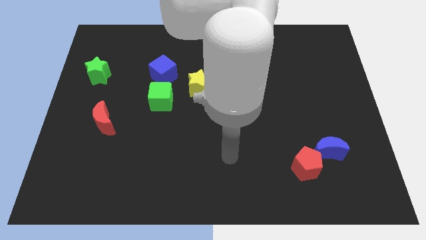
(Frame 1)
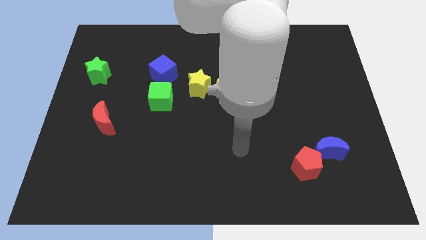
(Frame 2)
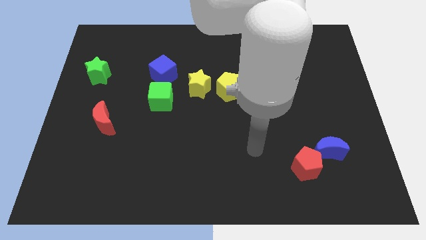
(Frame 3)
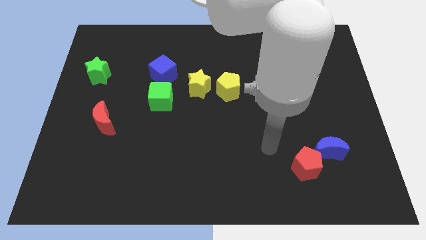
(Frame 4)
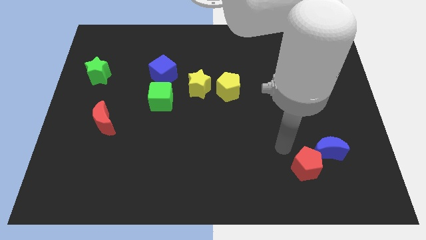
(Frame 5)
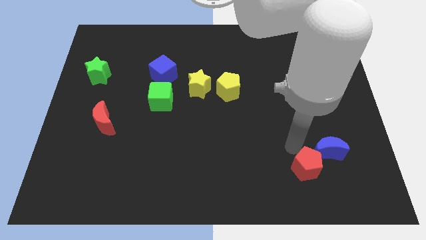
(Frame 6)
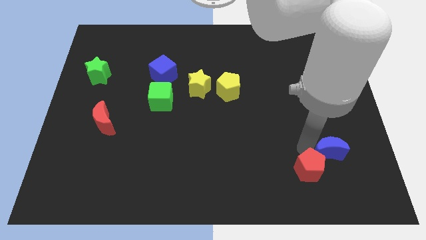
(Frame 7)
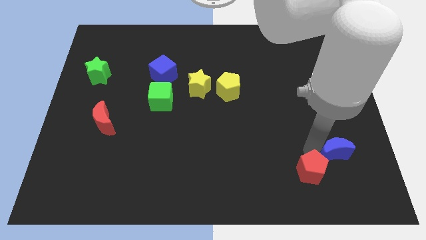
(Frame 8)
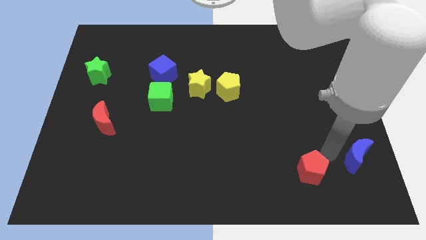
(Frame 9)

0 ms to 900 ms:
move the red pentagon away from the blue moon

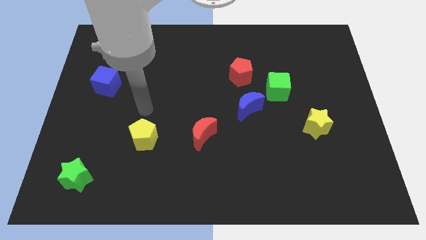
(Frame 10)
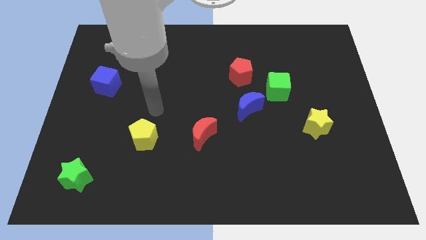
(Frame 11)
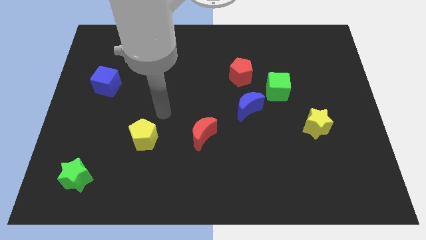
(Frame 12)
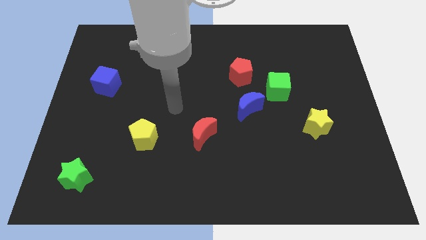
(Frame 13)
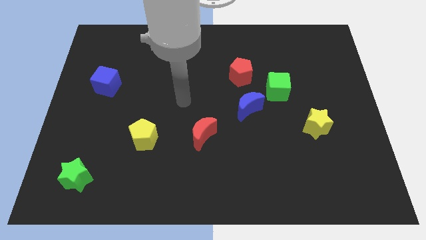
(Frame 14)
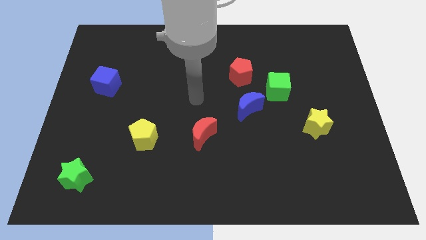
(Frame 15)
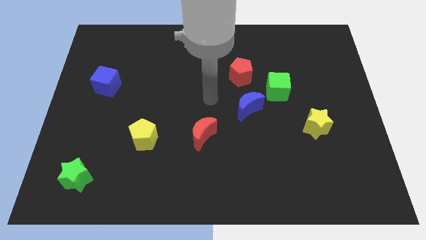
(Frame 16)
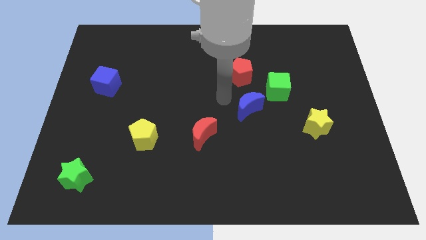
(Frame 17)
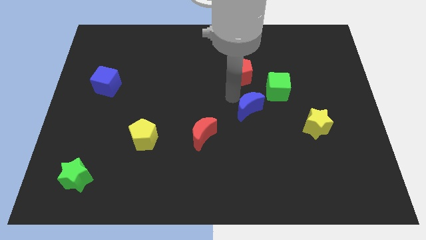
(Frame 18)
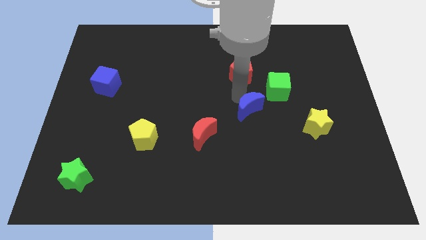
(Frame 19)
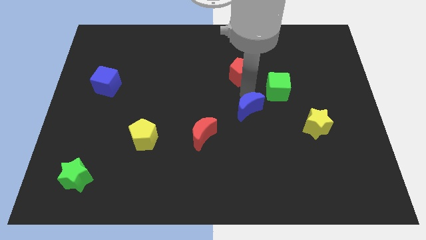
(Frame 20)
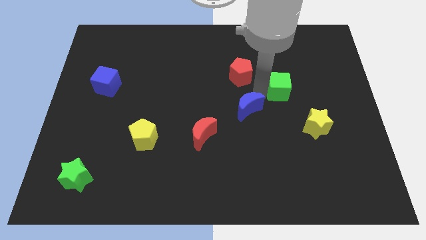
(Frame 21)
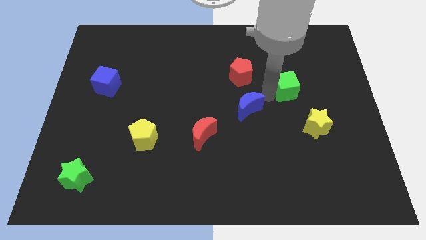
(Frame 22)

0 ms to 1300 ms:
separate the blue moon from the green cube

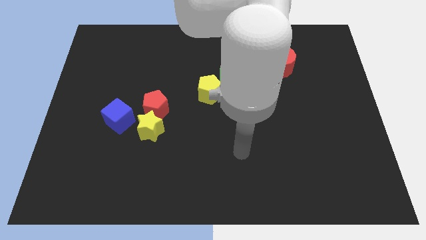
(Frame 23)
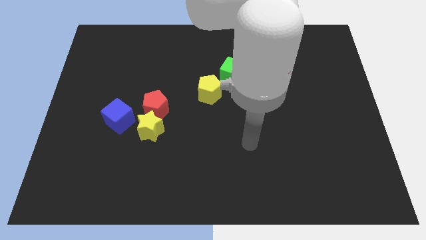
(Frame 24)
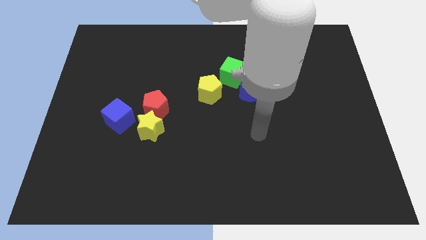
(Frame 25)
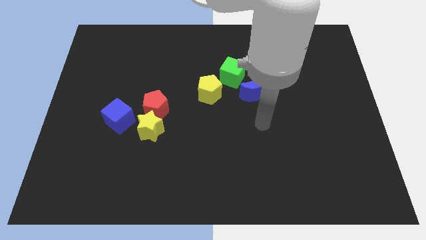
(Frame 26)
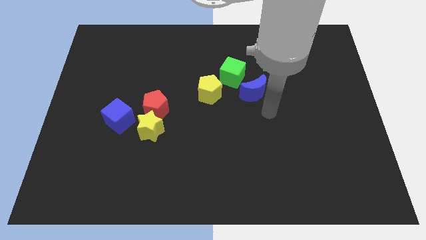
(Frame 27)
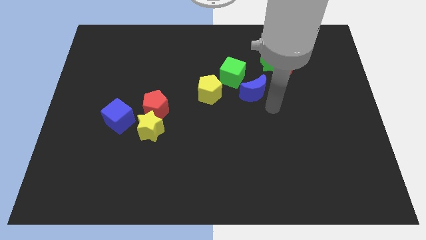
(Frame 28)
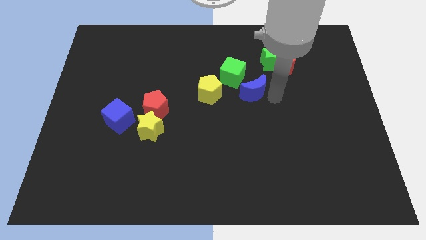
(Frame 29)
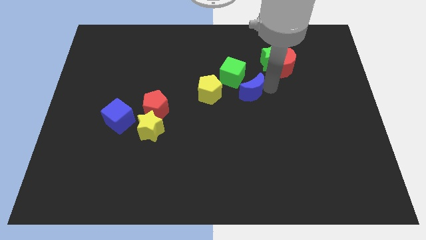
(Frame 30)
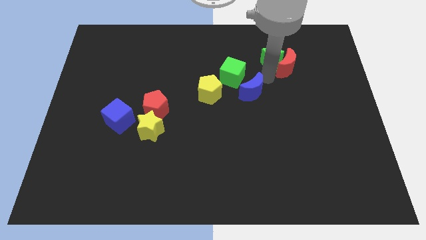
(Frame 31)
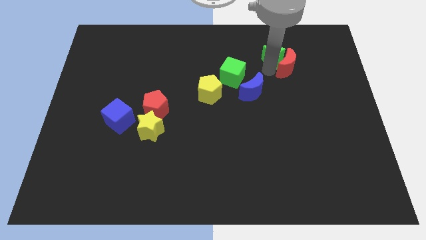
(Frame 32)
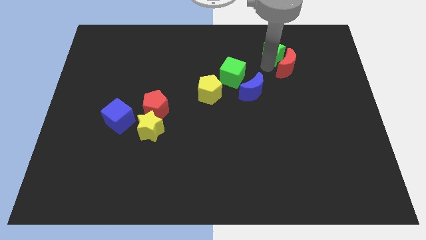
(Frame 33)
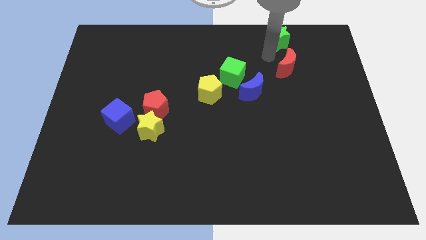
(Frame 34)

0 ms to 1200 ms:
move the red moon away from the green star

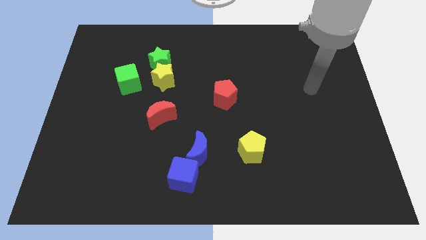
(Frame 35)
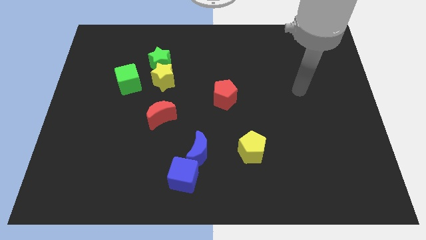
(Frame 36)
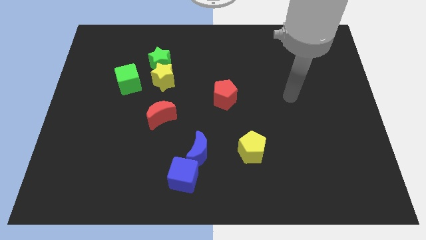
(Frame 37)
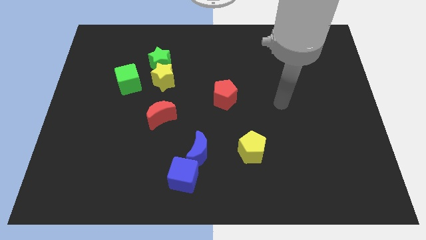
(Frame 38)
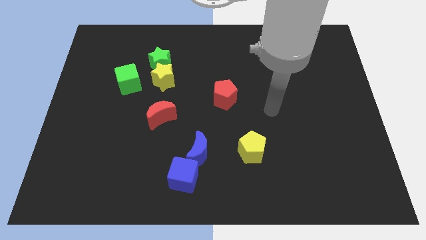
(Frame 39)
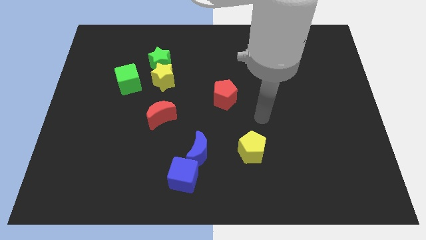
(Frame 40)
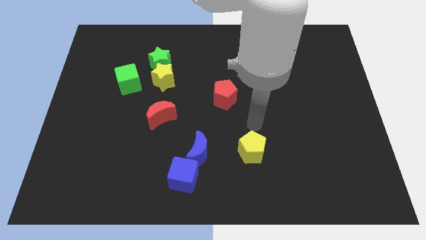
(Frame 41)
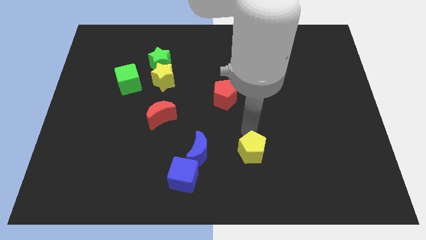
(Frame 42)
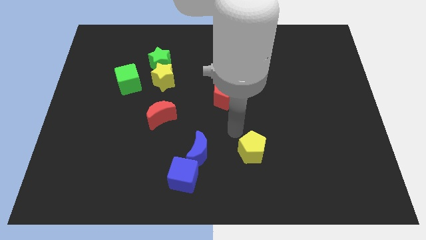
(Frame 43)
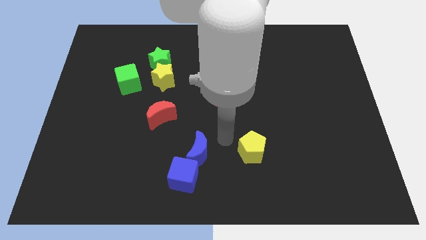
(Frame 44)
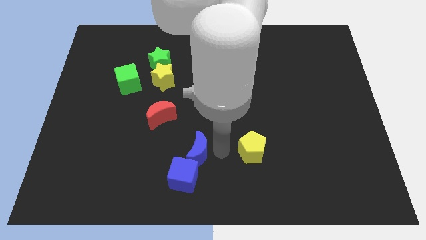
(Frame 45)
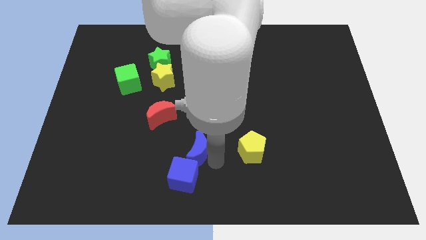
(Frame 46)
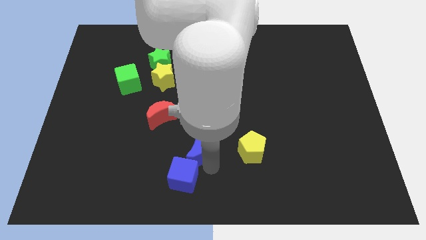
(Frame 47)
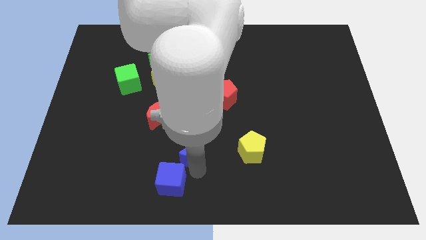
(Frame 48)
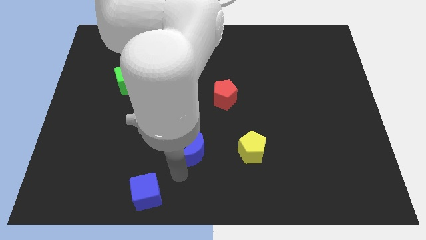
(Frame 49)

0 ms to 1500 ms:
separate the blue moon from the blue cube

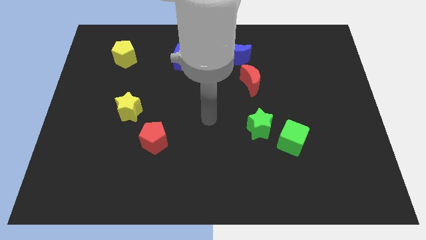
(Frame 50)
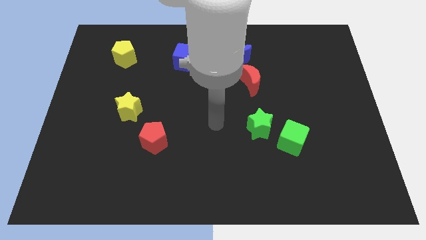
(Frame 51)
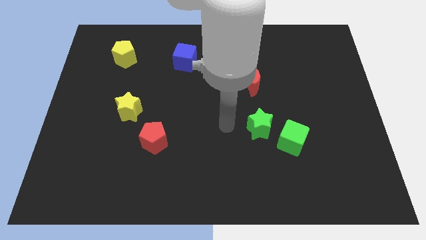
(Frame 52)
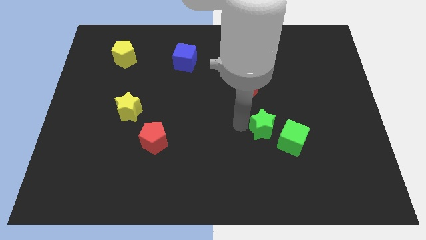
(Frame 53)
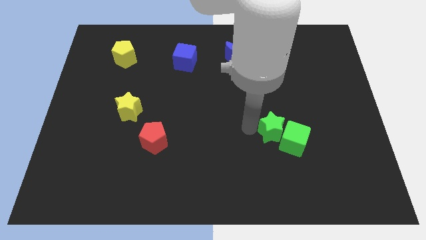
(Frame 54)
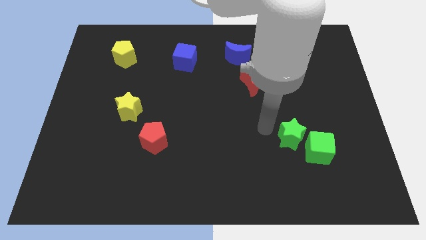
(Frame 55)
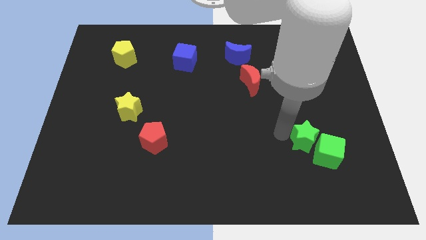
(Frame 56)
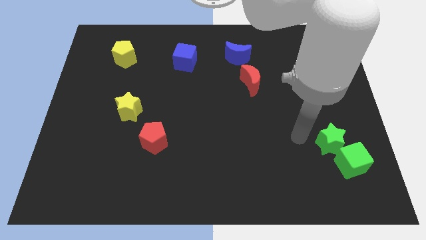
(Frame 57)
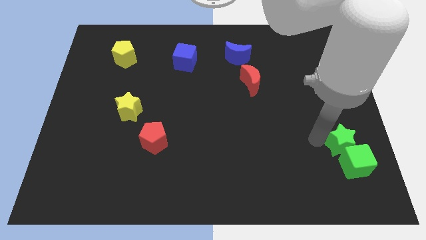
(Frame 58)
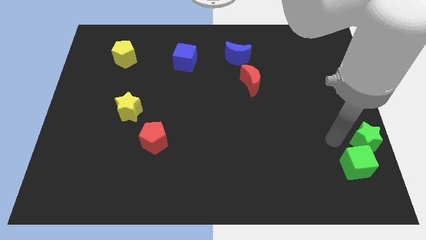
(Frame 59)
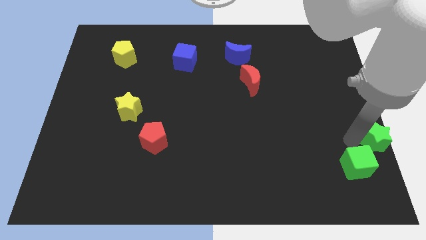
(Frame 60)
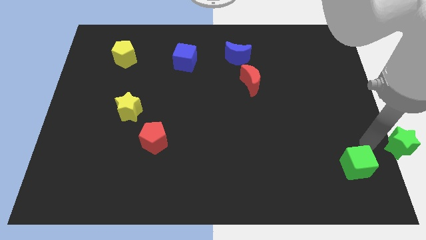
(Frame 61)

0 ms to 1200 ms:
pull the green cube apart from the green star

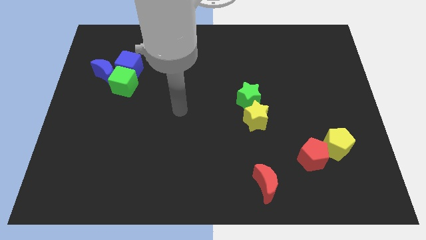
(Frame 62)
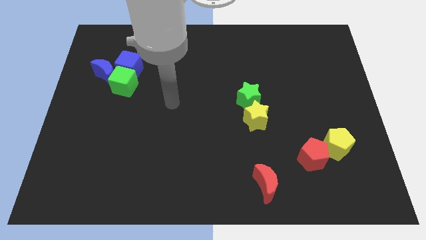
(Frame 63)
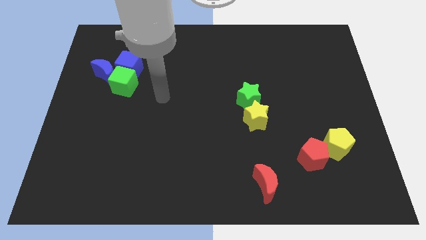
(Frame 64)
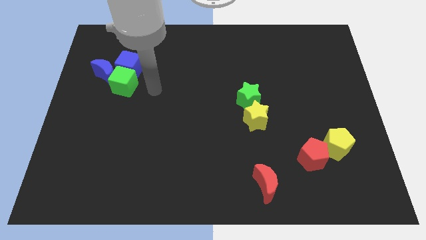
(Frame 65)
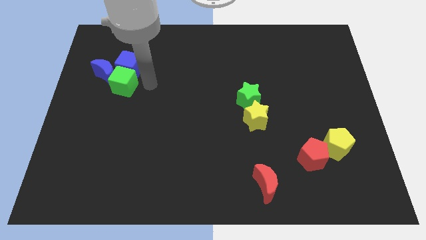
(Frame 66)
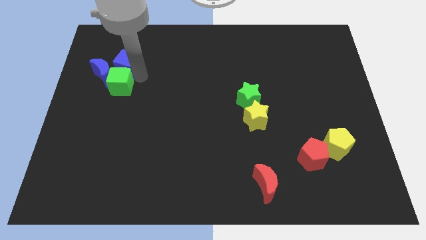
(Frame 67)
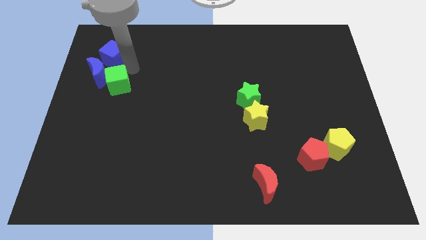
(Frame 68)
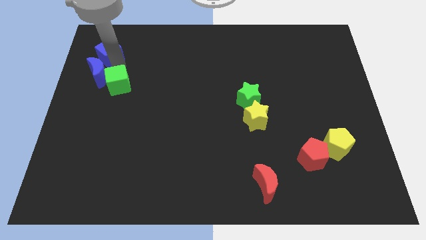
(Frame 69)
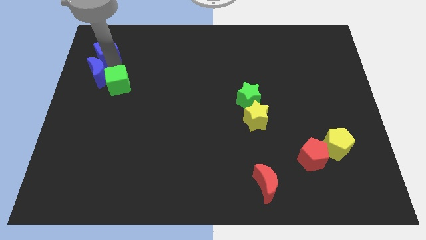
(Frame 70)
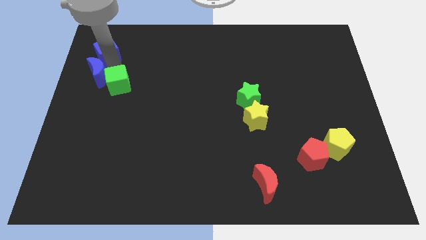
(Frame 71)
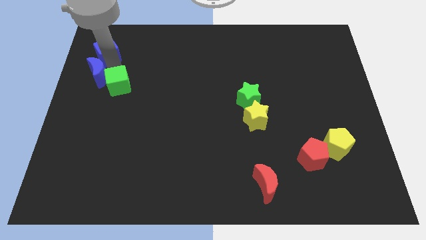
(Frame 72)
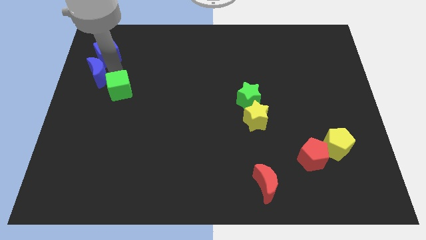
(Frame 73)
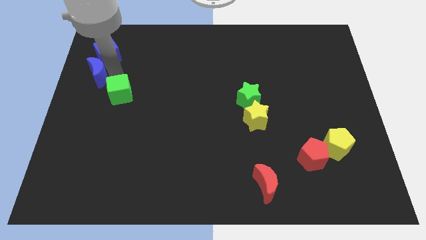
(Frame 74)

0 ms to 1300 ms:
separate the green cube from the blue cube and blue moon

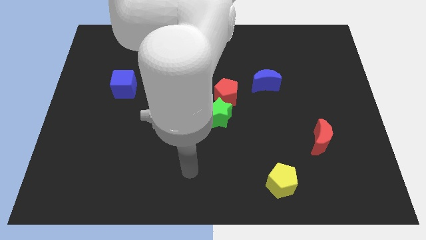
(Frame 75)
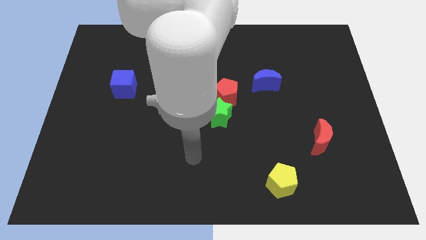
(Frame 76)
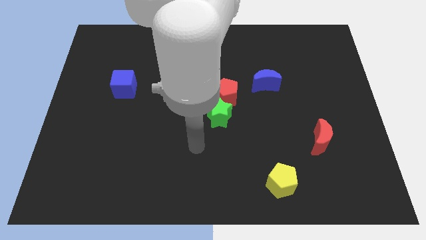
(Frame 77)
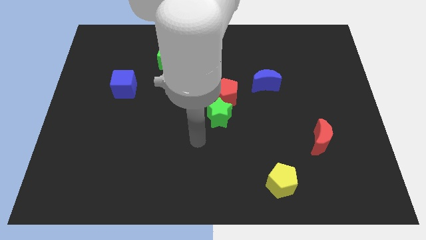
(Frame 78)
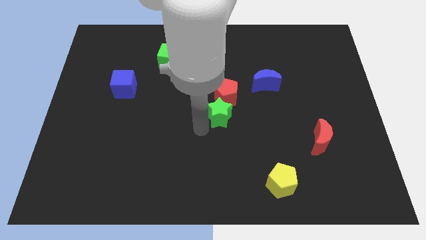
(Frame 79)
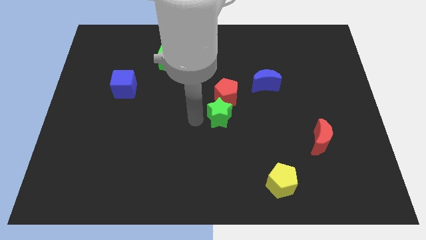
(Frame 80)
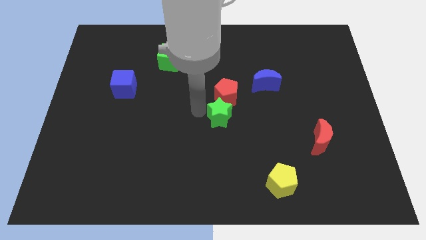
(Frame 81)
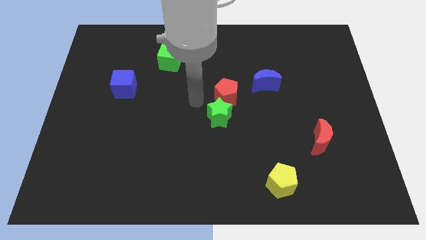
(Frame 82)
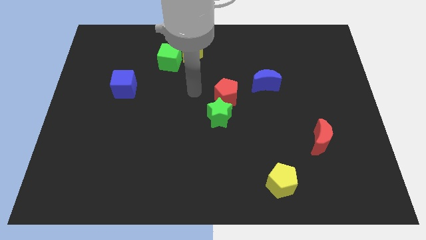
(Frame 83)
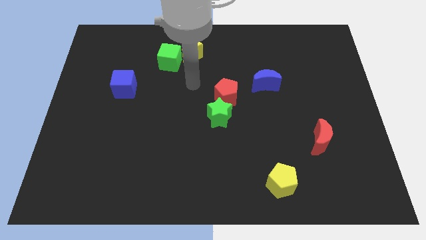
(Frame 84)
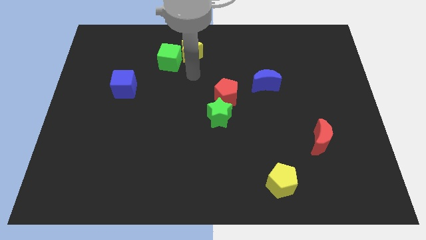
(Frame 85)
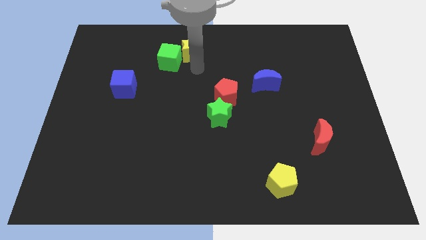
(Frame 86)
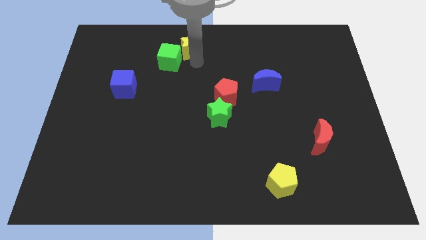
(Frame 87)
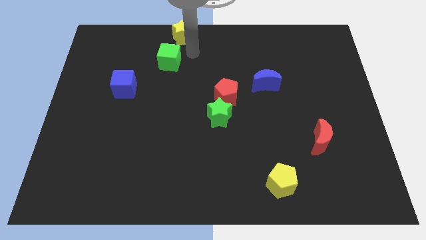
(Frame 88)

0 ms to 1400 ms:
pull the green cube apart from the yellow star

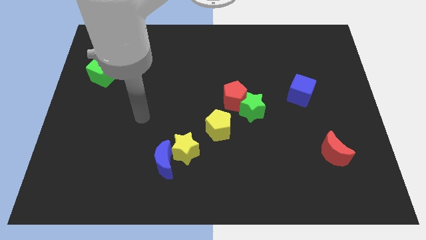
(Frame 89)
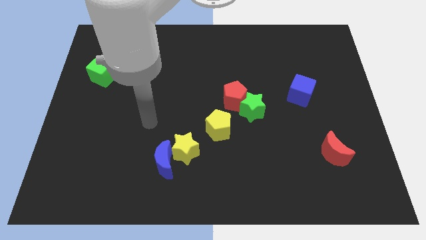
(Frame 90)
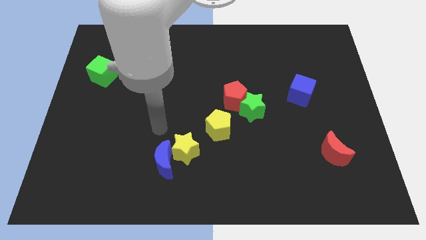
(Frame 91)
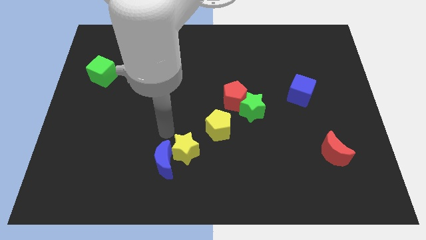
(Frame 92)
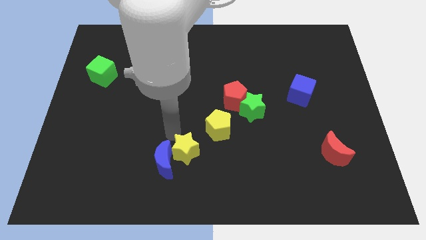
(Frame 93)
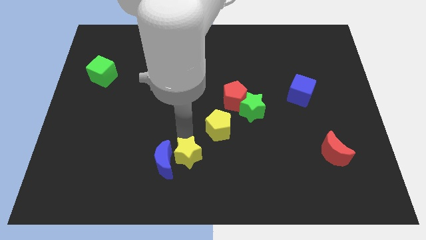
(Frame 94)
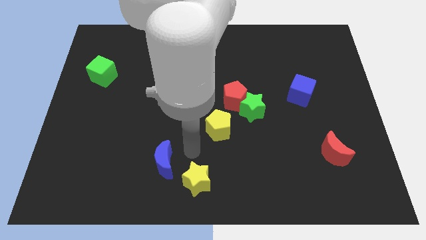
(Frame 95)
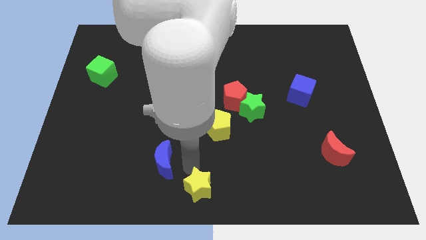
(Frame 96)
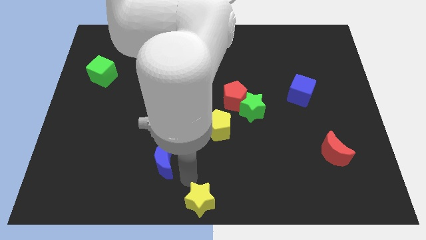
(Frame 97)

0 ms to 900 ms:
move the blue moon away from the yellow star
